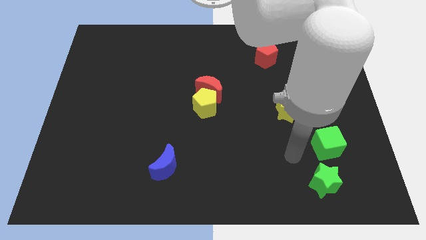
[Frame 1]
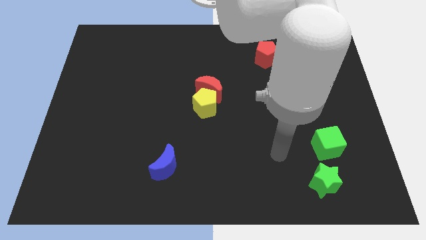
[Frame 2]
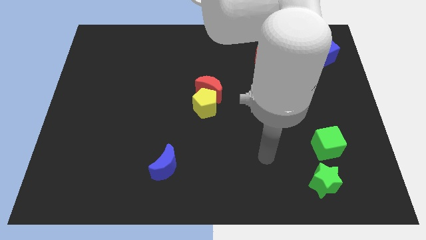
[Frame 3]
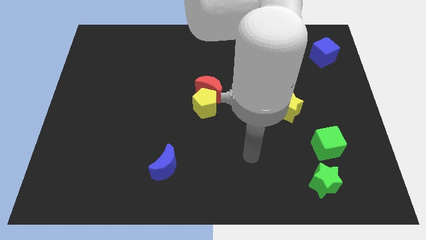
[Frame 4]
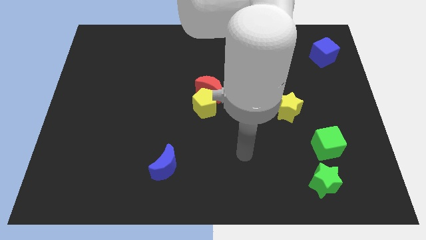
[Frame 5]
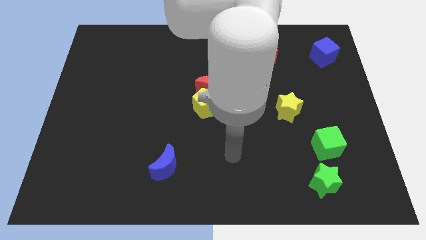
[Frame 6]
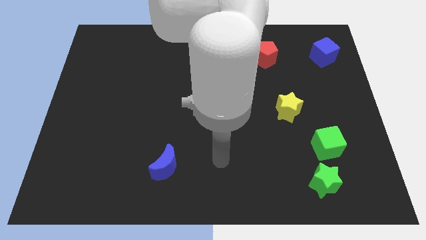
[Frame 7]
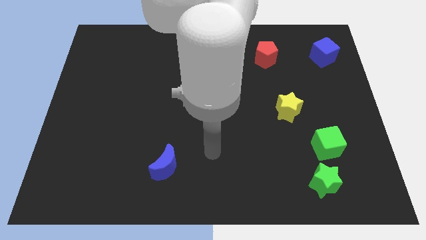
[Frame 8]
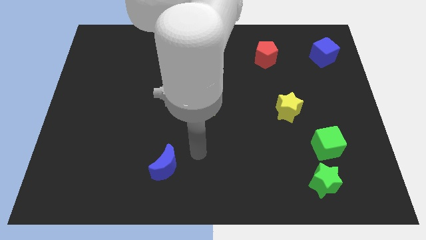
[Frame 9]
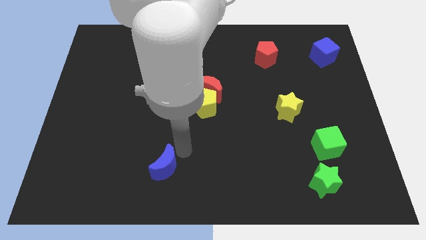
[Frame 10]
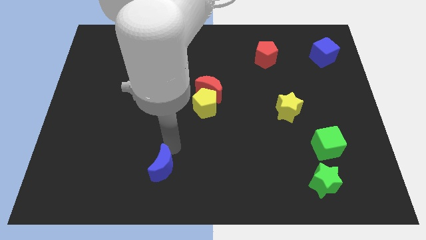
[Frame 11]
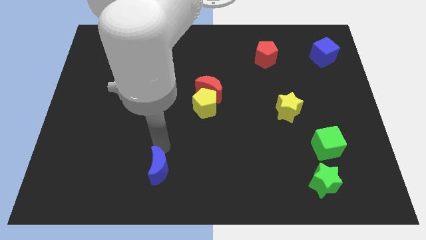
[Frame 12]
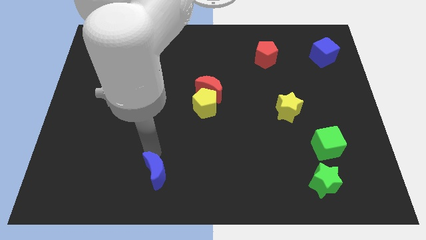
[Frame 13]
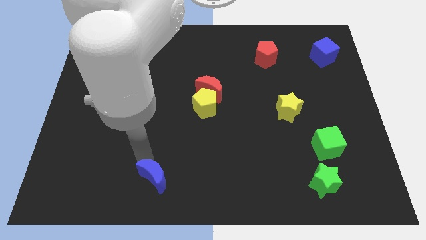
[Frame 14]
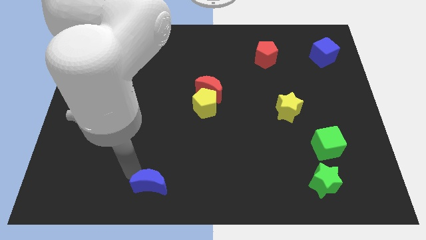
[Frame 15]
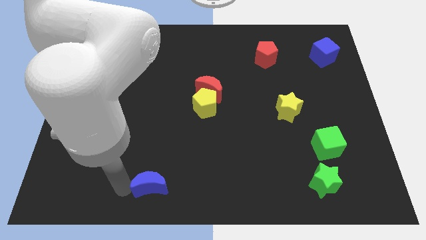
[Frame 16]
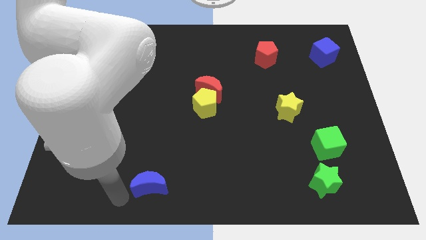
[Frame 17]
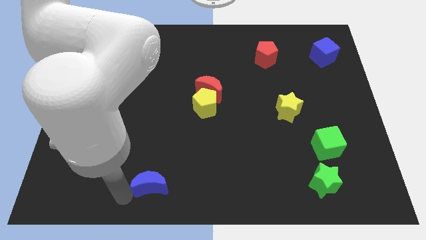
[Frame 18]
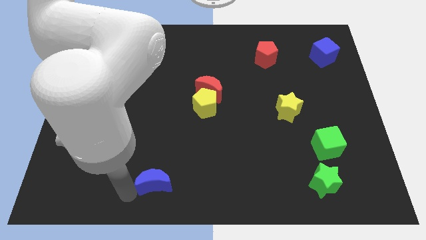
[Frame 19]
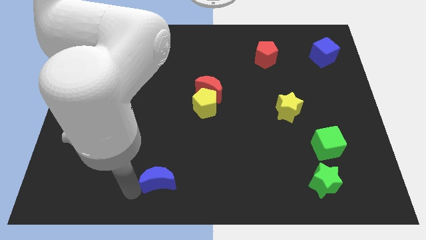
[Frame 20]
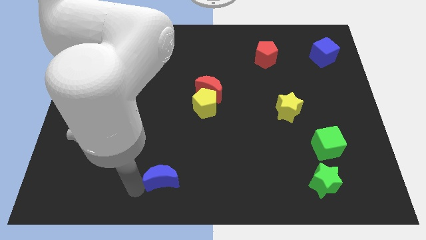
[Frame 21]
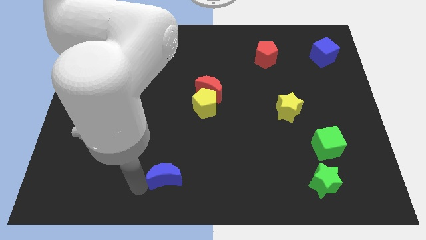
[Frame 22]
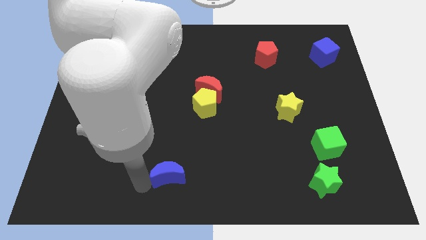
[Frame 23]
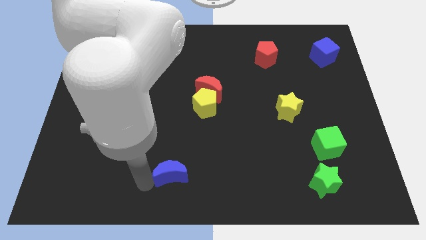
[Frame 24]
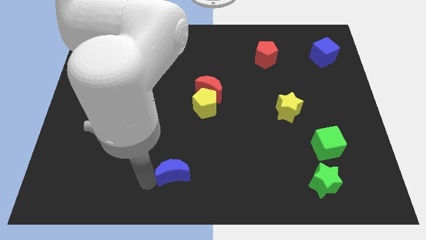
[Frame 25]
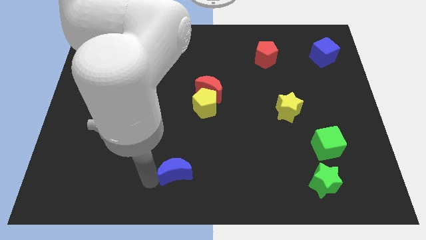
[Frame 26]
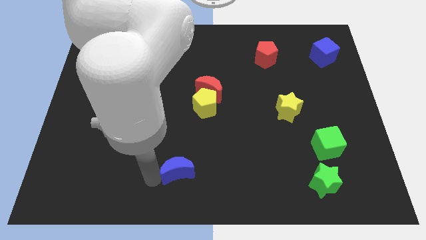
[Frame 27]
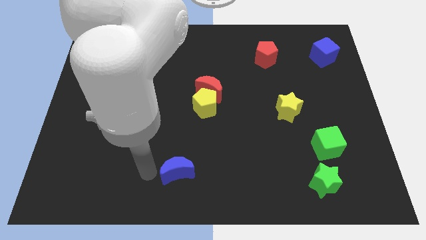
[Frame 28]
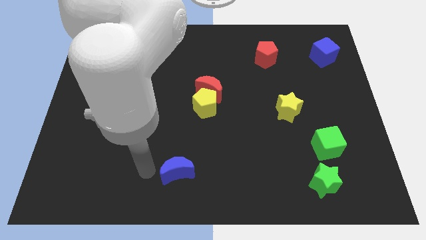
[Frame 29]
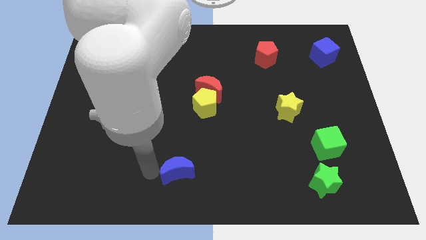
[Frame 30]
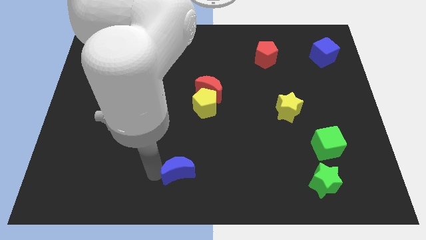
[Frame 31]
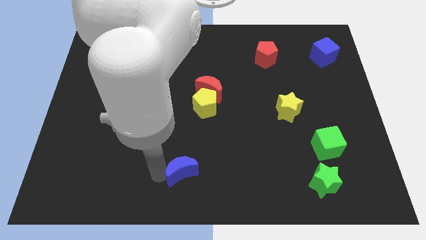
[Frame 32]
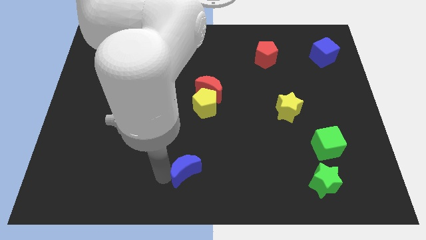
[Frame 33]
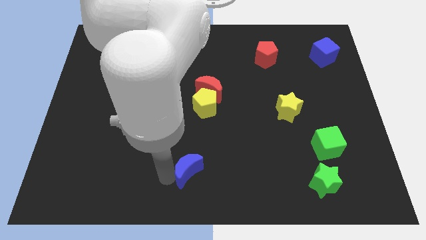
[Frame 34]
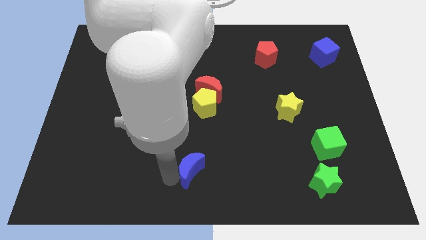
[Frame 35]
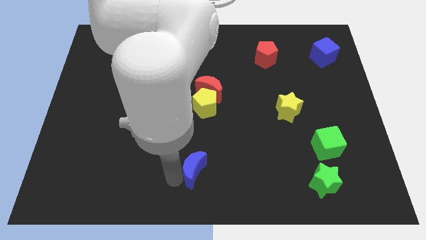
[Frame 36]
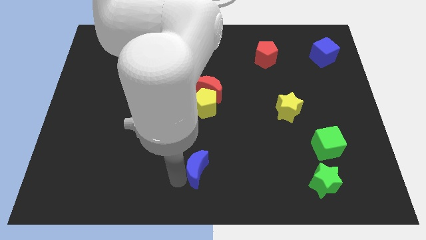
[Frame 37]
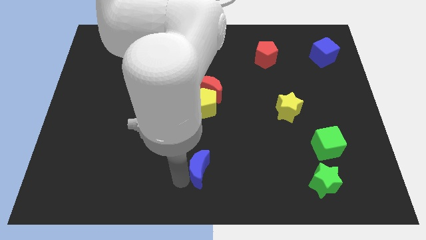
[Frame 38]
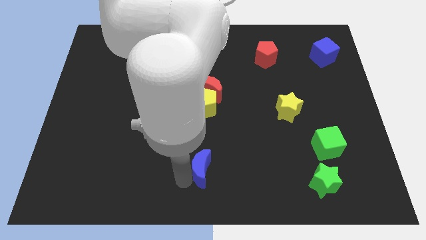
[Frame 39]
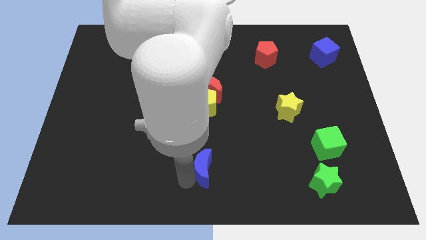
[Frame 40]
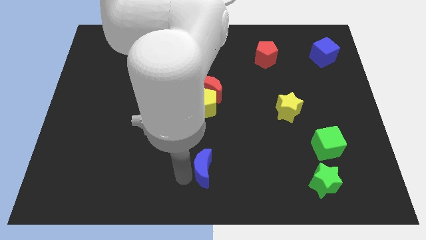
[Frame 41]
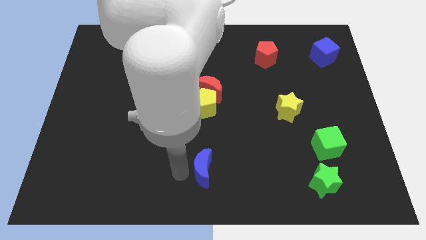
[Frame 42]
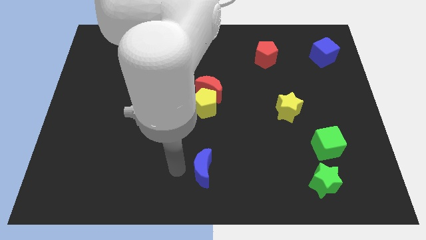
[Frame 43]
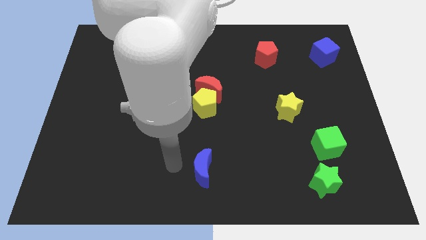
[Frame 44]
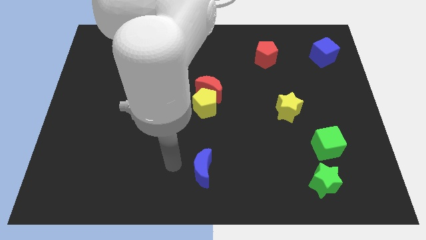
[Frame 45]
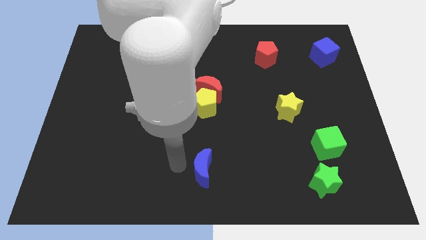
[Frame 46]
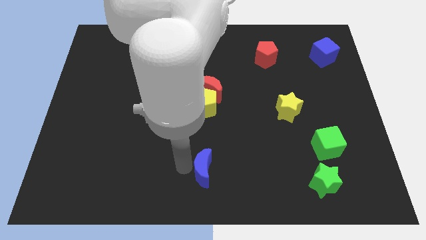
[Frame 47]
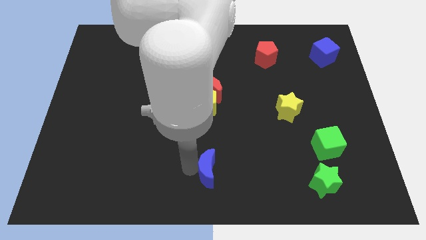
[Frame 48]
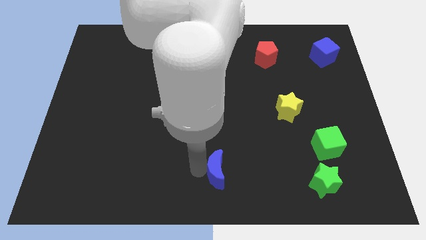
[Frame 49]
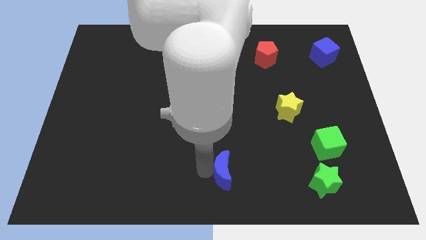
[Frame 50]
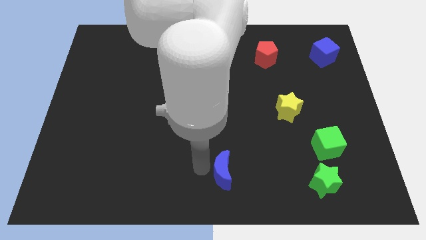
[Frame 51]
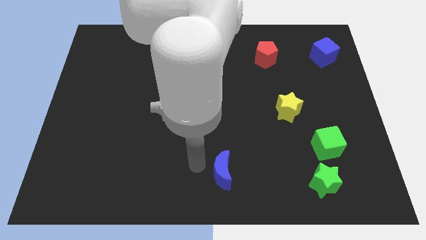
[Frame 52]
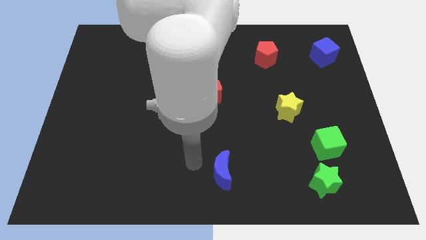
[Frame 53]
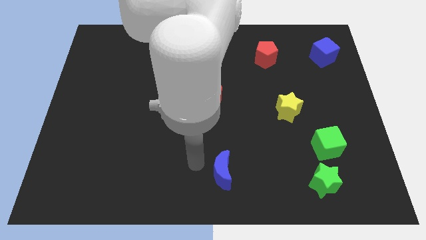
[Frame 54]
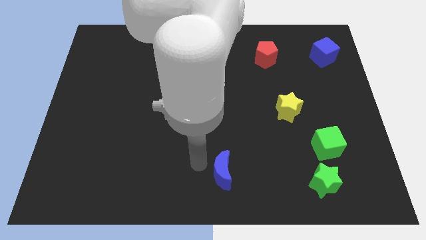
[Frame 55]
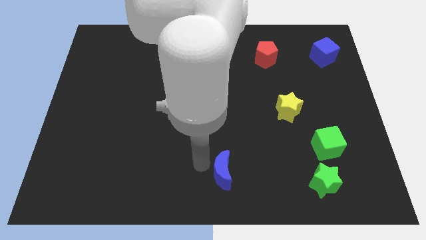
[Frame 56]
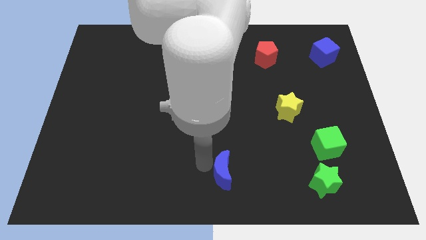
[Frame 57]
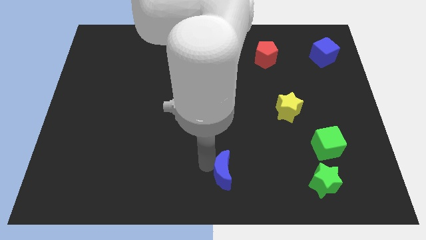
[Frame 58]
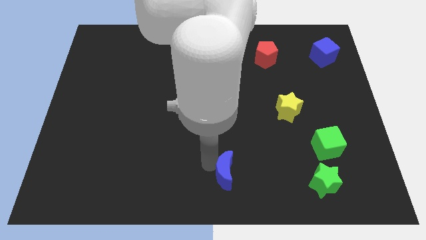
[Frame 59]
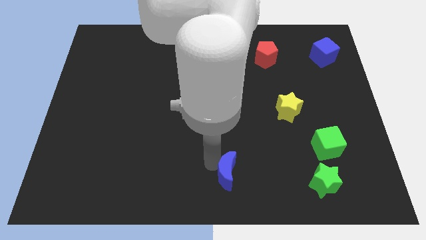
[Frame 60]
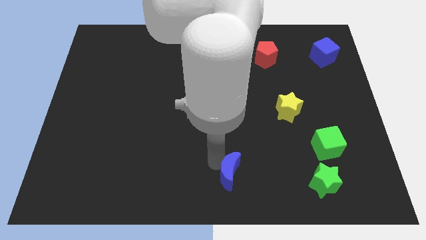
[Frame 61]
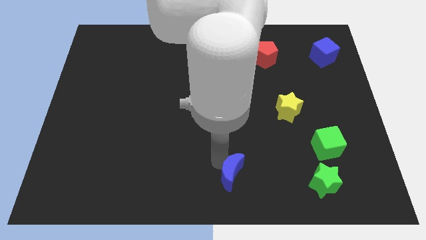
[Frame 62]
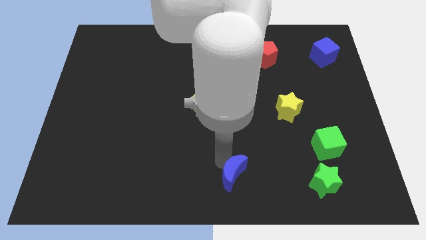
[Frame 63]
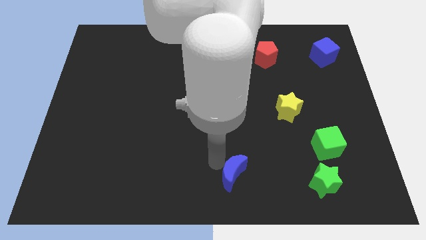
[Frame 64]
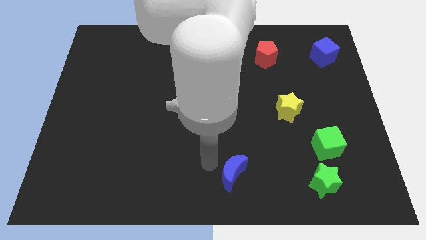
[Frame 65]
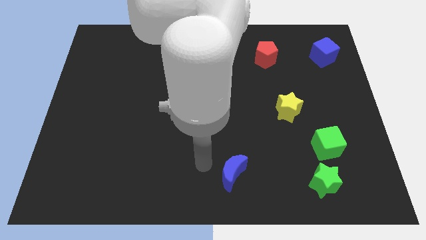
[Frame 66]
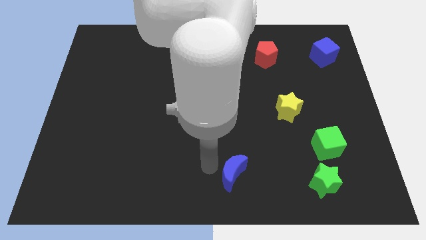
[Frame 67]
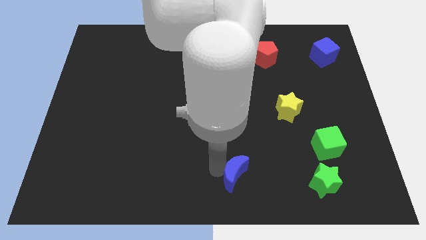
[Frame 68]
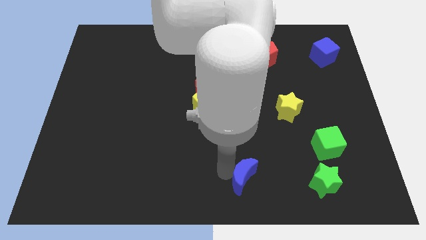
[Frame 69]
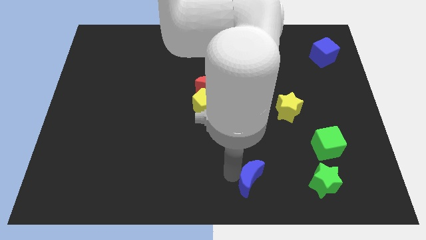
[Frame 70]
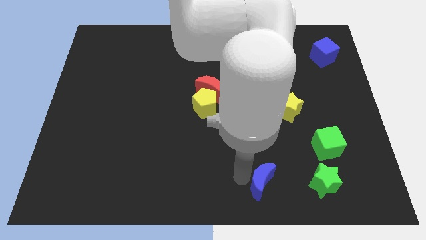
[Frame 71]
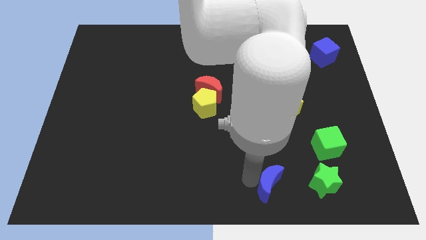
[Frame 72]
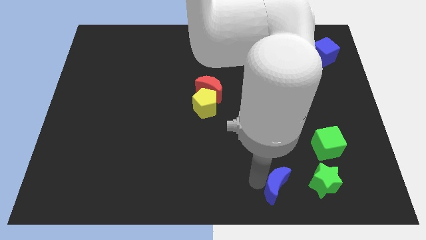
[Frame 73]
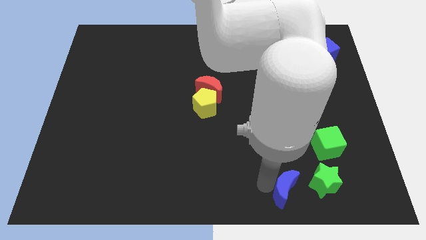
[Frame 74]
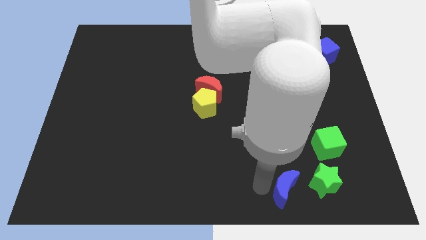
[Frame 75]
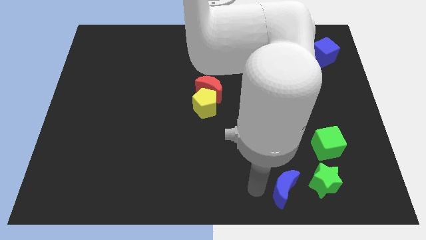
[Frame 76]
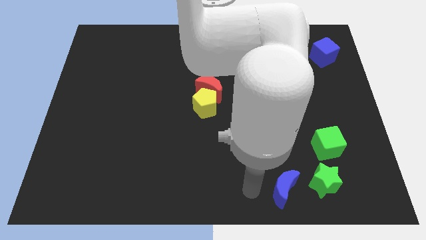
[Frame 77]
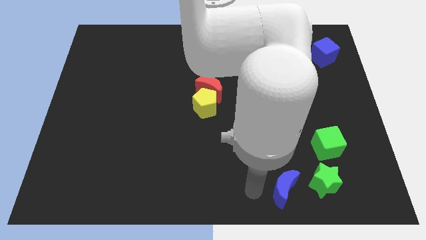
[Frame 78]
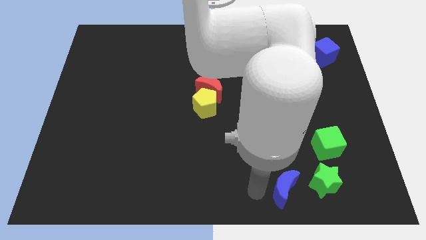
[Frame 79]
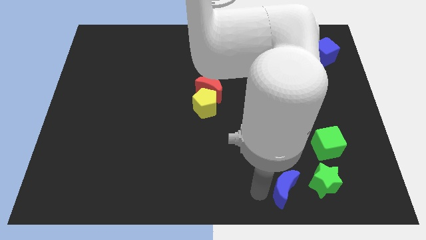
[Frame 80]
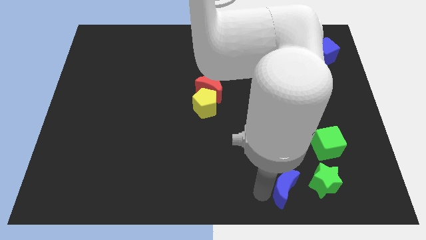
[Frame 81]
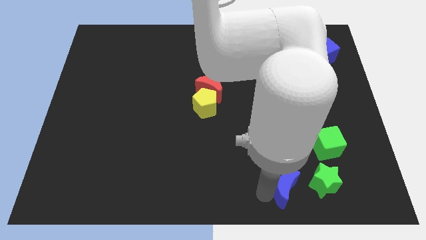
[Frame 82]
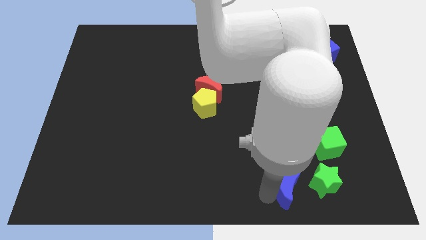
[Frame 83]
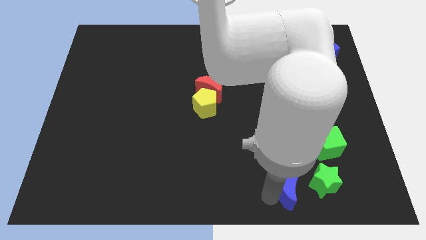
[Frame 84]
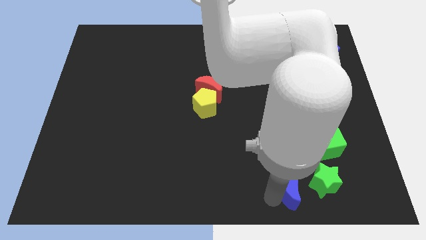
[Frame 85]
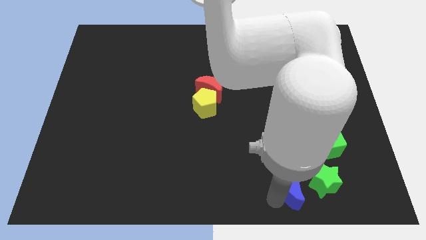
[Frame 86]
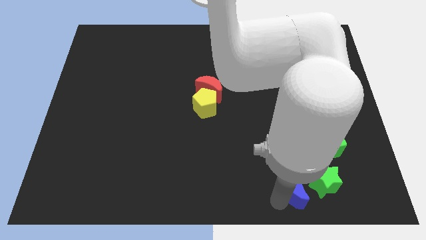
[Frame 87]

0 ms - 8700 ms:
move the blue moon close to the green star
